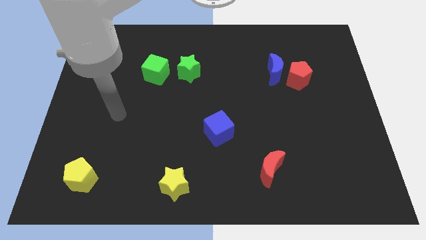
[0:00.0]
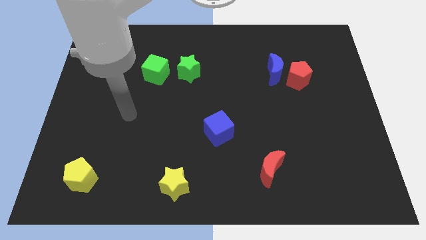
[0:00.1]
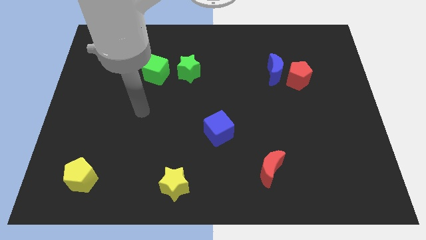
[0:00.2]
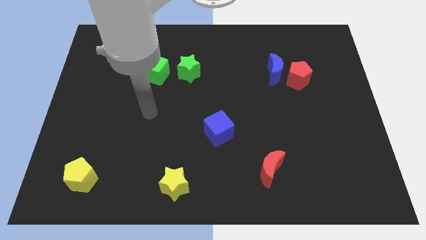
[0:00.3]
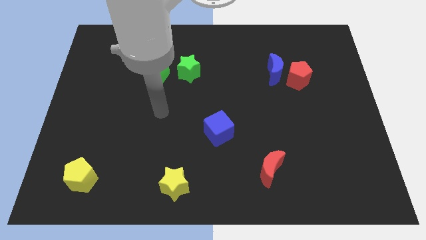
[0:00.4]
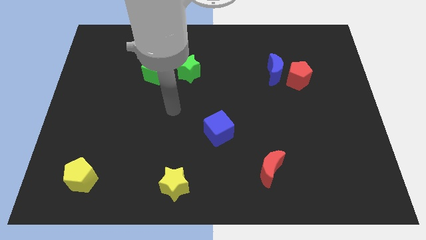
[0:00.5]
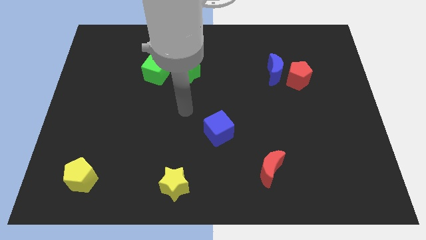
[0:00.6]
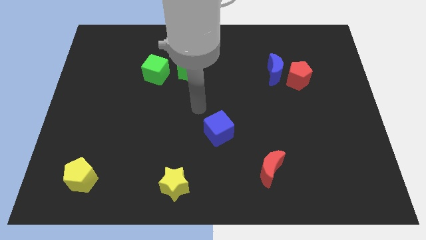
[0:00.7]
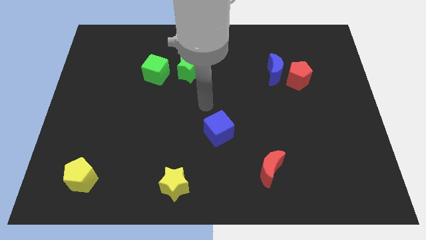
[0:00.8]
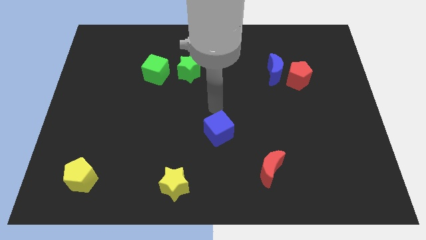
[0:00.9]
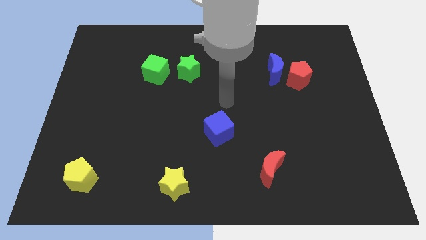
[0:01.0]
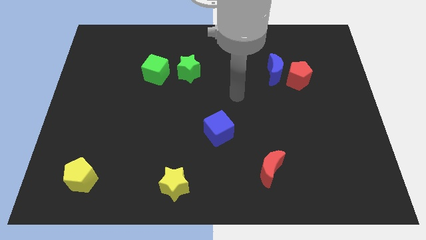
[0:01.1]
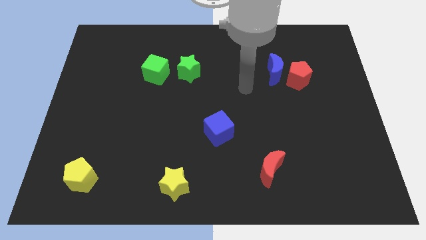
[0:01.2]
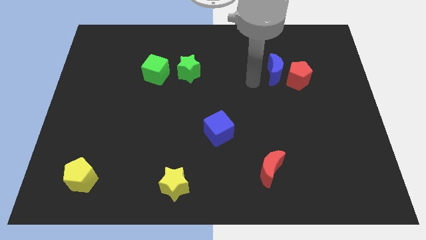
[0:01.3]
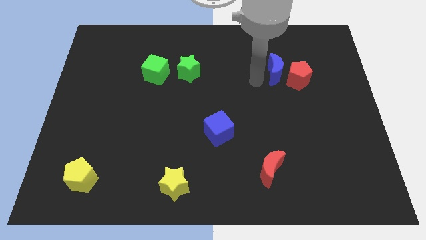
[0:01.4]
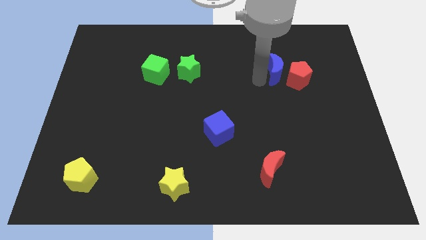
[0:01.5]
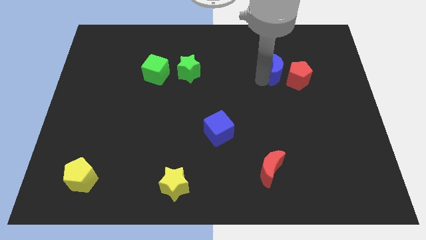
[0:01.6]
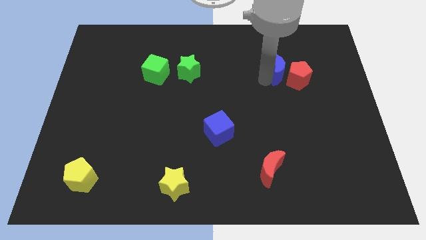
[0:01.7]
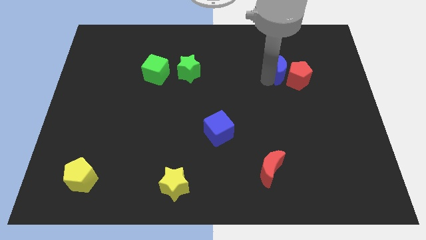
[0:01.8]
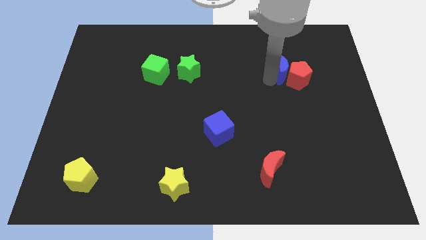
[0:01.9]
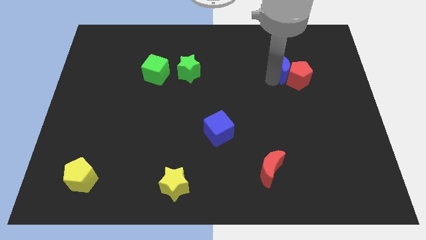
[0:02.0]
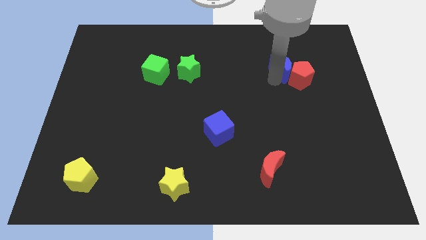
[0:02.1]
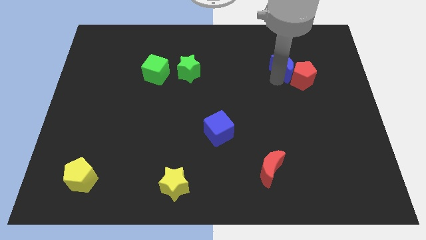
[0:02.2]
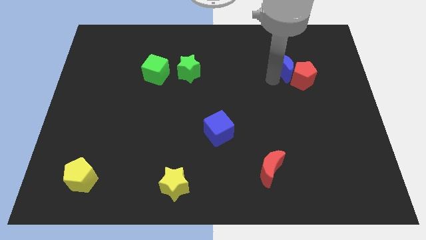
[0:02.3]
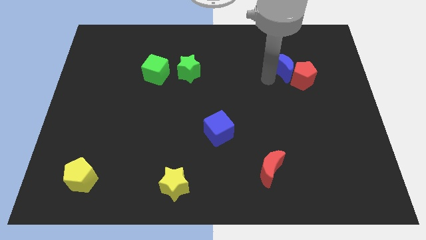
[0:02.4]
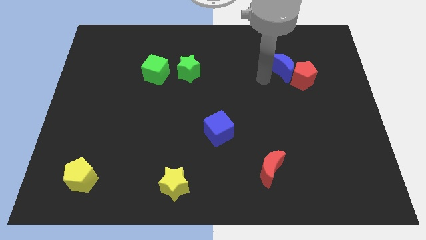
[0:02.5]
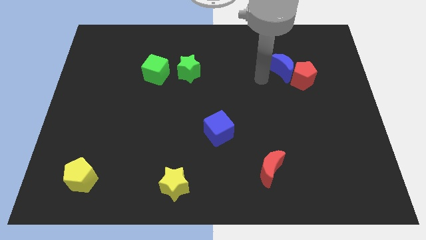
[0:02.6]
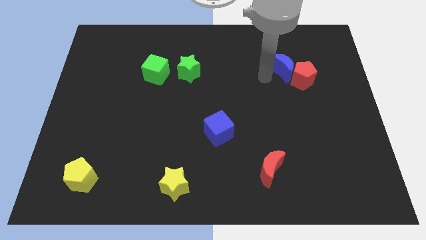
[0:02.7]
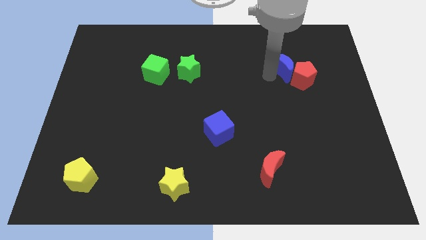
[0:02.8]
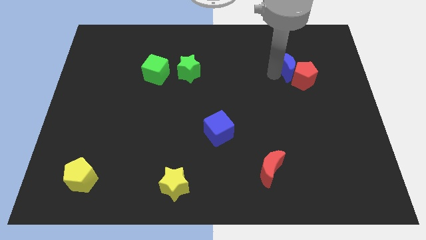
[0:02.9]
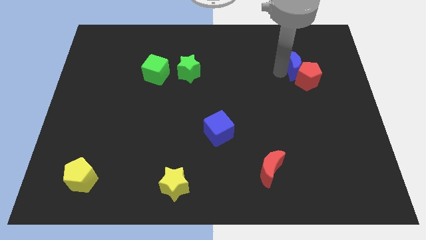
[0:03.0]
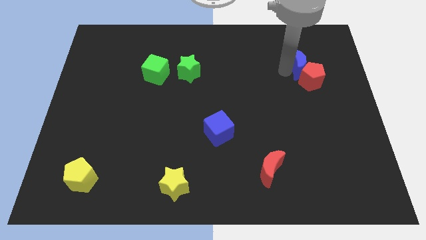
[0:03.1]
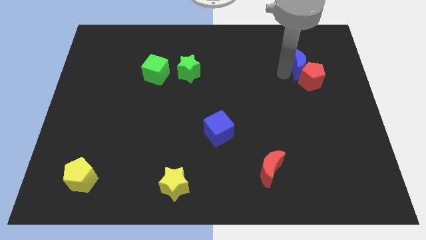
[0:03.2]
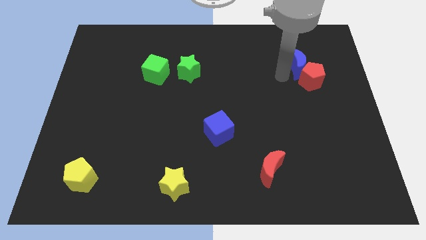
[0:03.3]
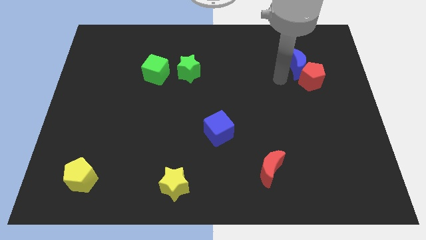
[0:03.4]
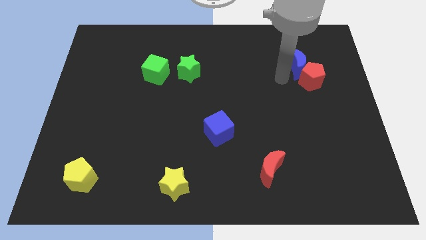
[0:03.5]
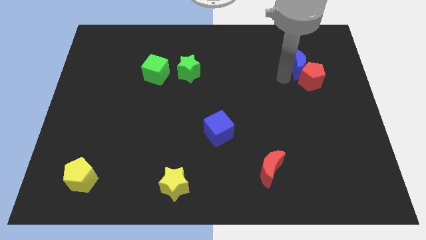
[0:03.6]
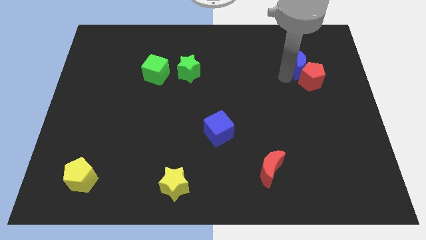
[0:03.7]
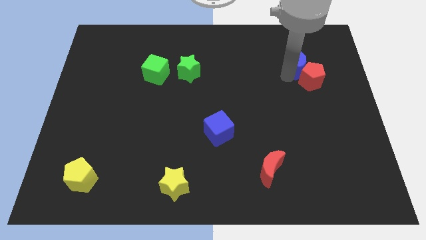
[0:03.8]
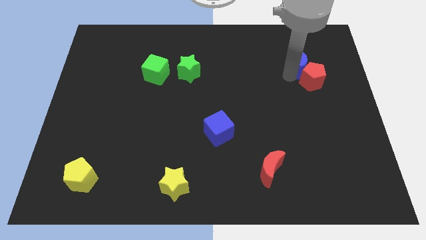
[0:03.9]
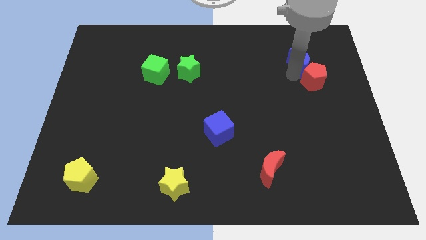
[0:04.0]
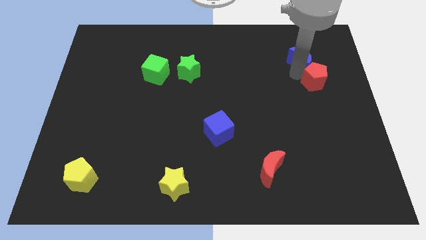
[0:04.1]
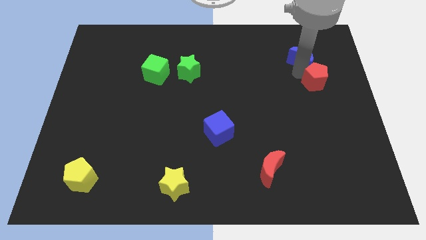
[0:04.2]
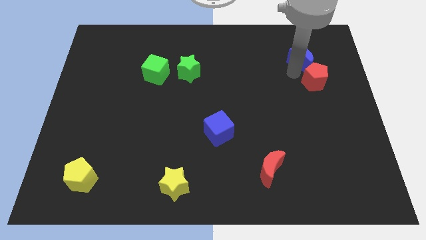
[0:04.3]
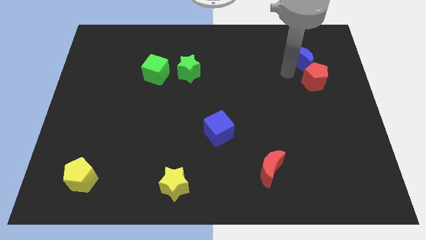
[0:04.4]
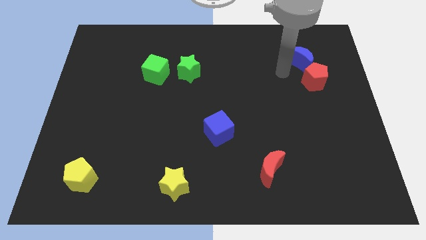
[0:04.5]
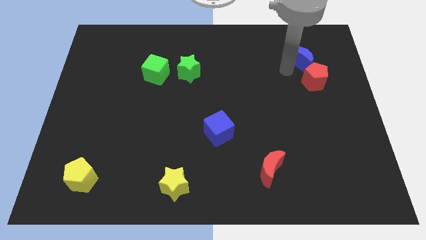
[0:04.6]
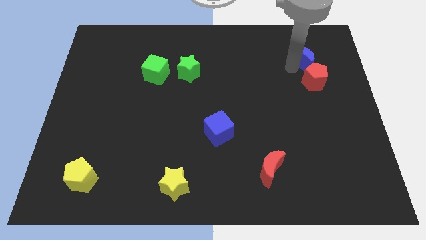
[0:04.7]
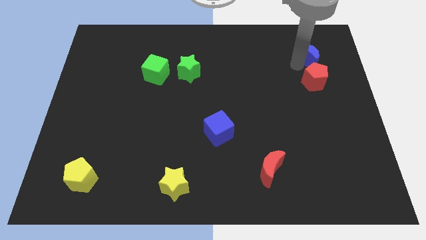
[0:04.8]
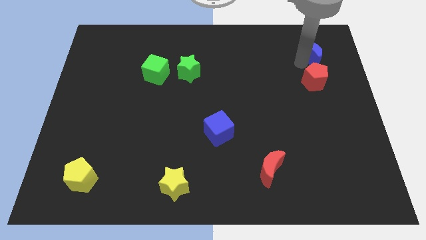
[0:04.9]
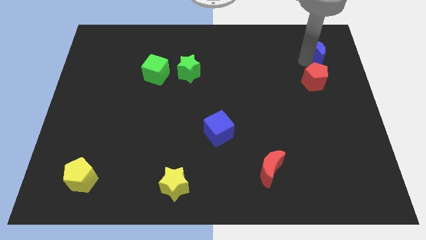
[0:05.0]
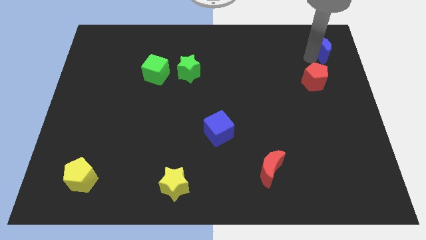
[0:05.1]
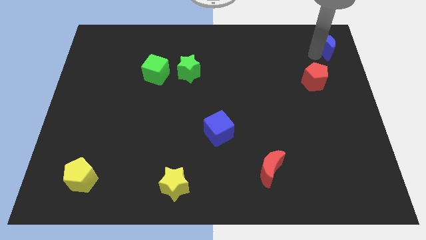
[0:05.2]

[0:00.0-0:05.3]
put the blue moon to the upper right corner
